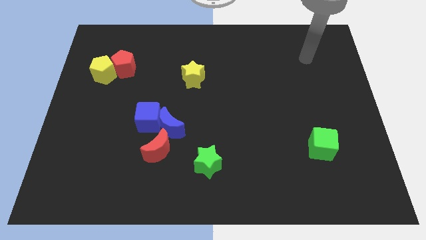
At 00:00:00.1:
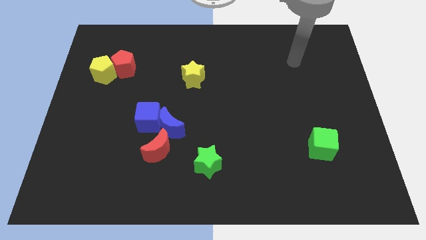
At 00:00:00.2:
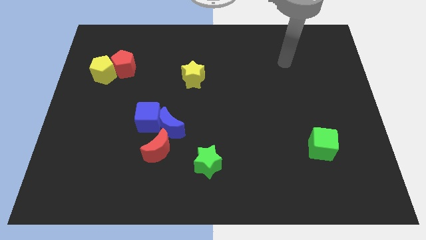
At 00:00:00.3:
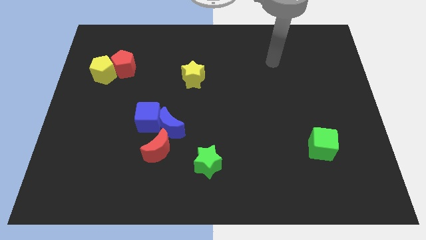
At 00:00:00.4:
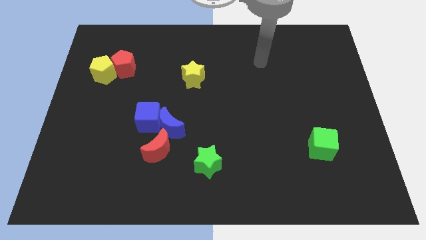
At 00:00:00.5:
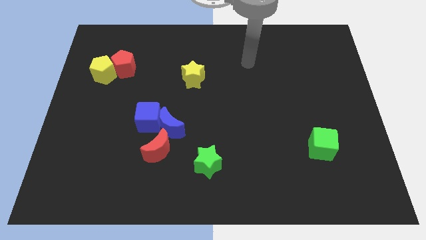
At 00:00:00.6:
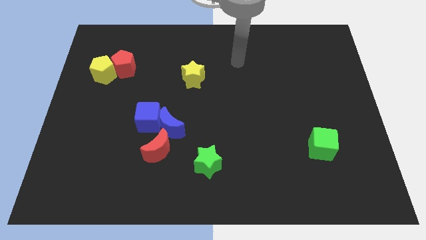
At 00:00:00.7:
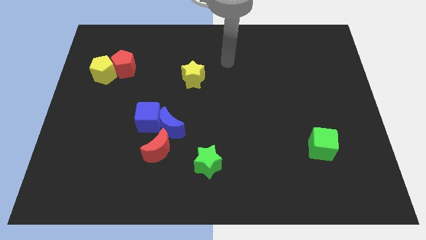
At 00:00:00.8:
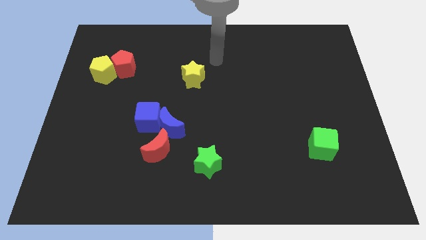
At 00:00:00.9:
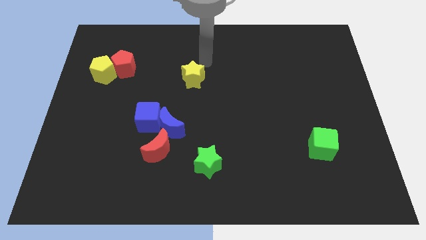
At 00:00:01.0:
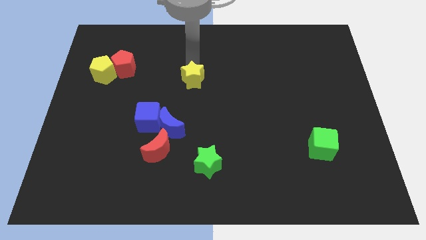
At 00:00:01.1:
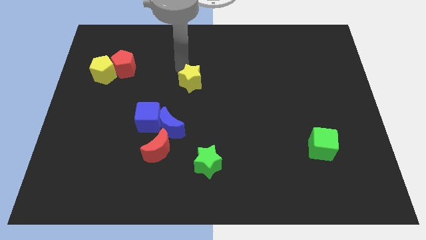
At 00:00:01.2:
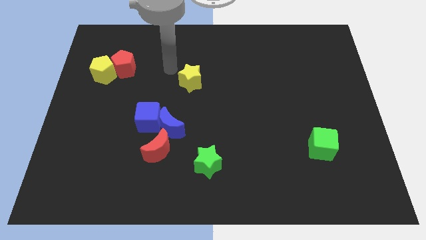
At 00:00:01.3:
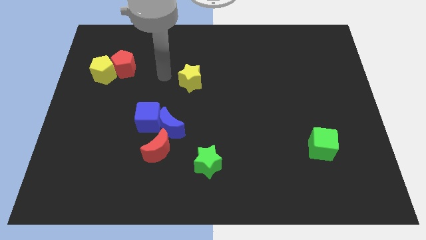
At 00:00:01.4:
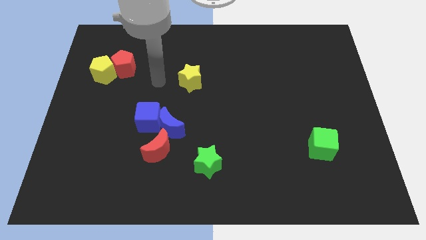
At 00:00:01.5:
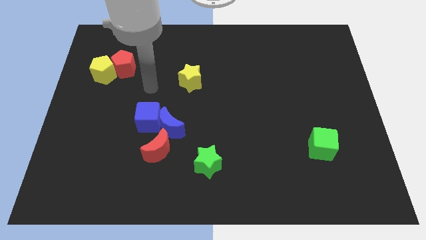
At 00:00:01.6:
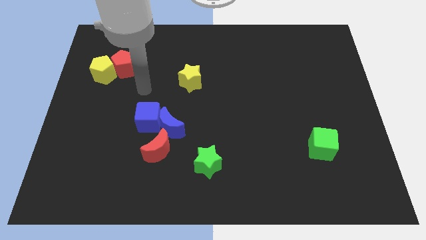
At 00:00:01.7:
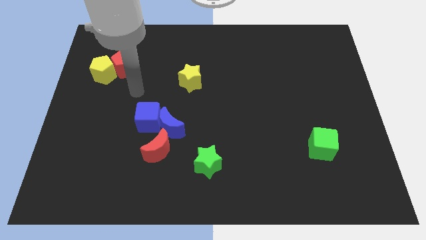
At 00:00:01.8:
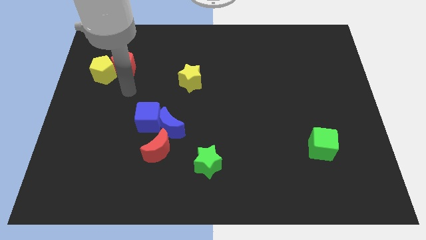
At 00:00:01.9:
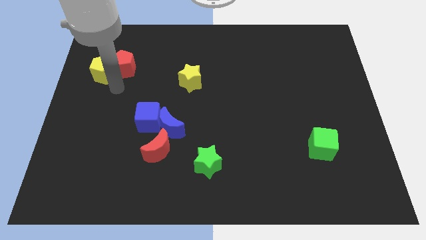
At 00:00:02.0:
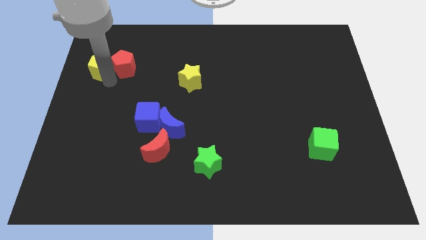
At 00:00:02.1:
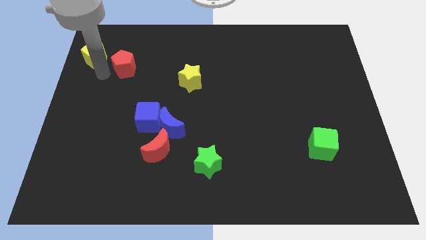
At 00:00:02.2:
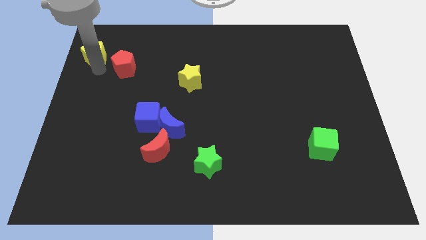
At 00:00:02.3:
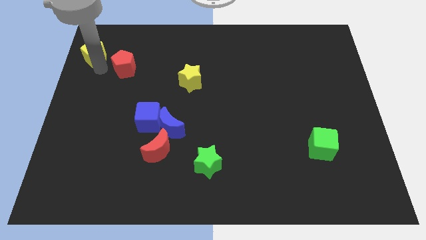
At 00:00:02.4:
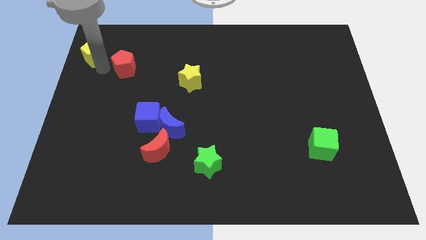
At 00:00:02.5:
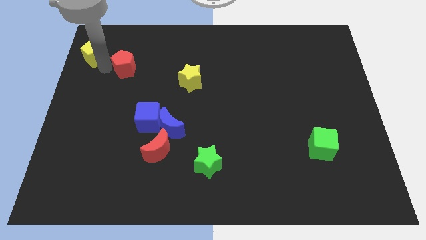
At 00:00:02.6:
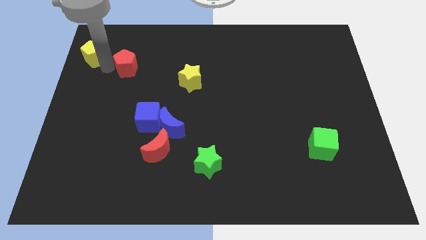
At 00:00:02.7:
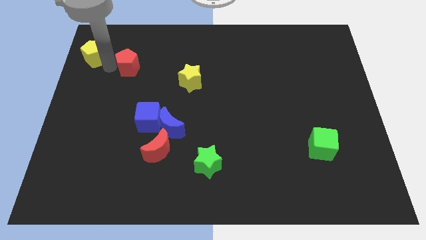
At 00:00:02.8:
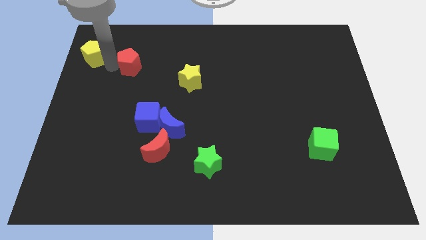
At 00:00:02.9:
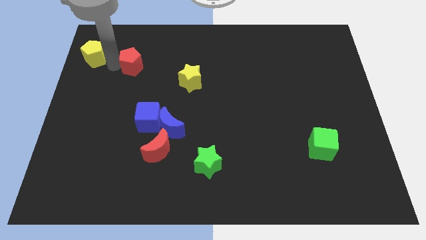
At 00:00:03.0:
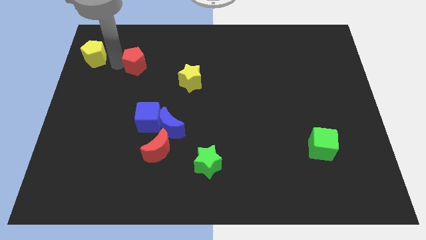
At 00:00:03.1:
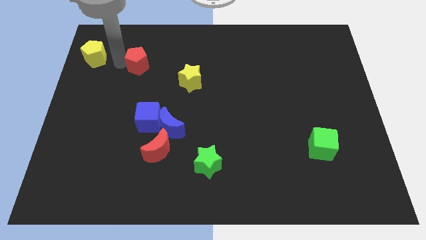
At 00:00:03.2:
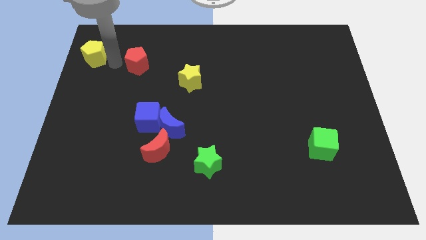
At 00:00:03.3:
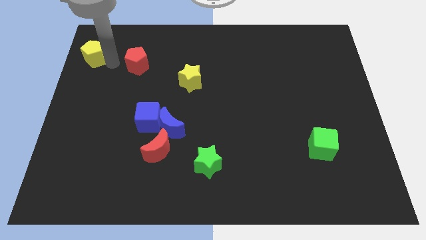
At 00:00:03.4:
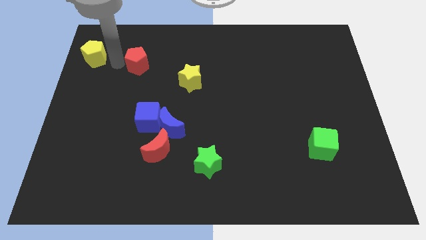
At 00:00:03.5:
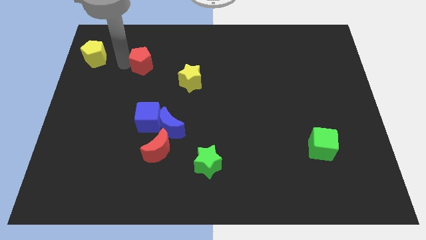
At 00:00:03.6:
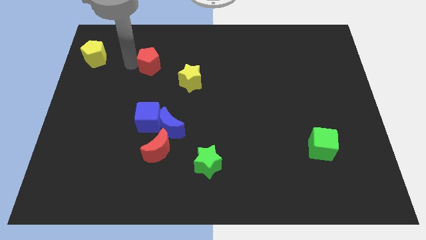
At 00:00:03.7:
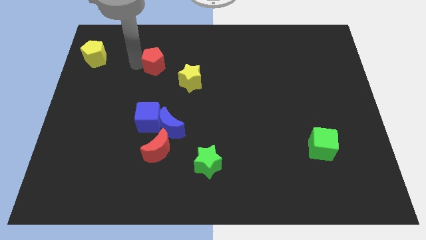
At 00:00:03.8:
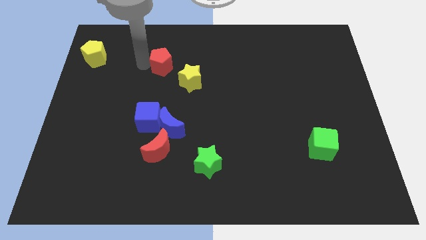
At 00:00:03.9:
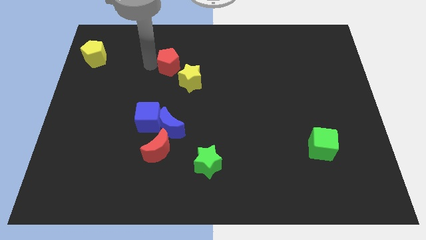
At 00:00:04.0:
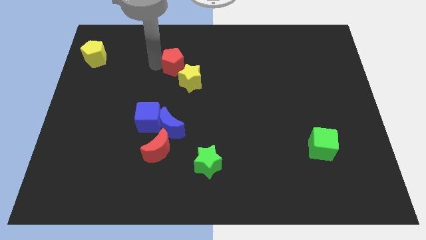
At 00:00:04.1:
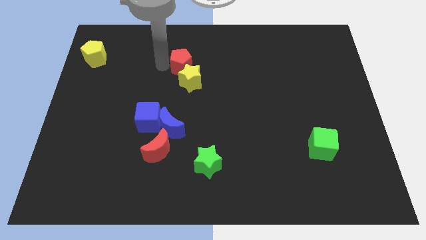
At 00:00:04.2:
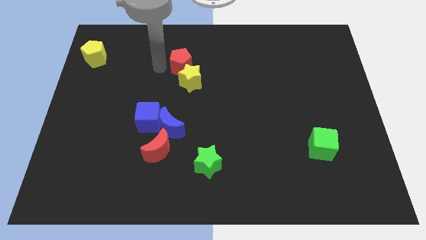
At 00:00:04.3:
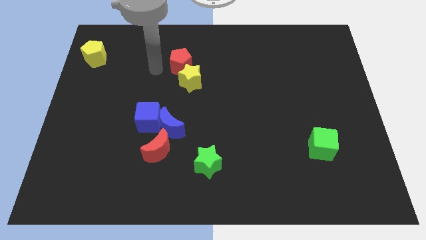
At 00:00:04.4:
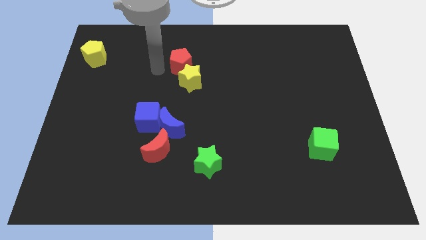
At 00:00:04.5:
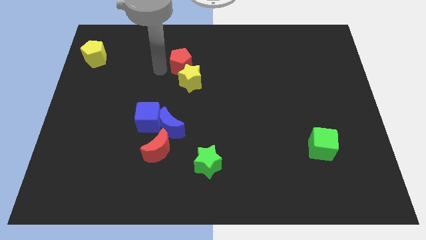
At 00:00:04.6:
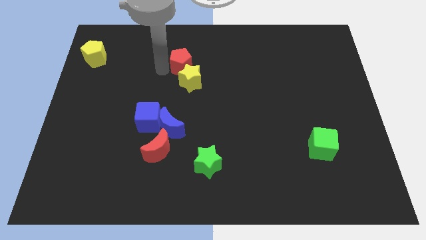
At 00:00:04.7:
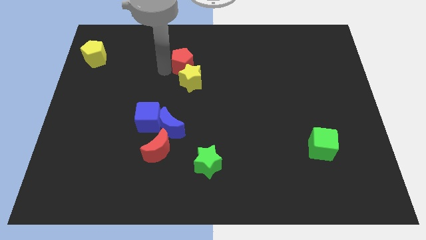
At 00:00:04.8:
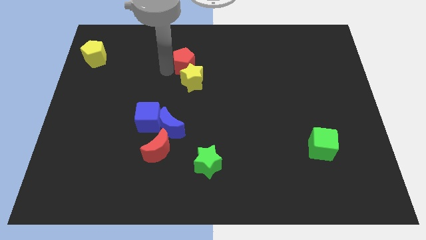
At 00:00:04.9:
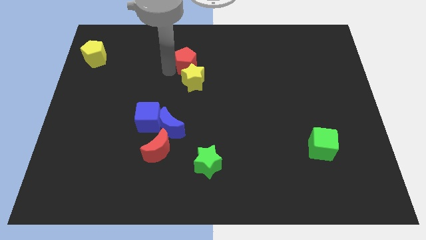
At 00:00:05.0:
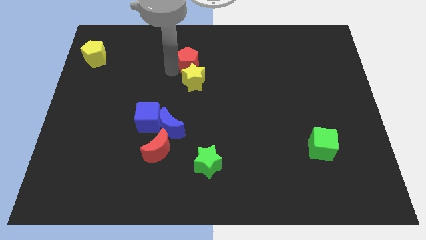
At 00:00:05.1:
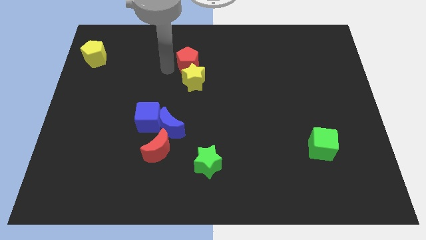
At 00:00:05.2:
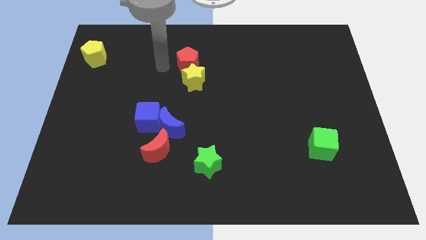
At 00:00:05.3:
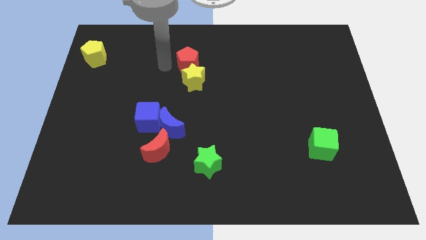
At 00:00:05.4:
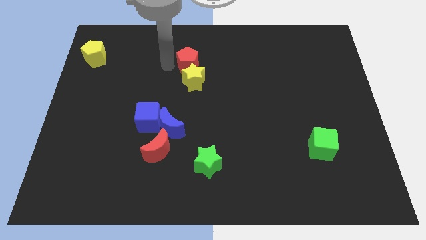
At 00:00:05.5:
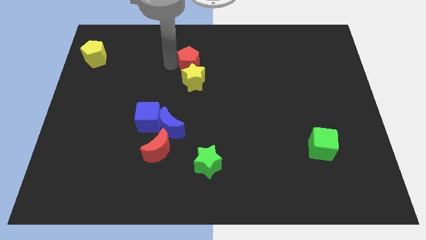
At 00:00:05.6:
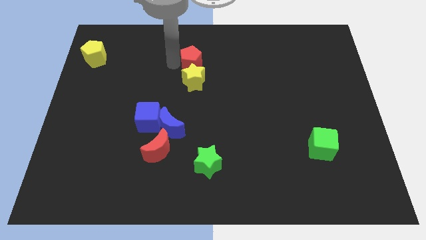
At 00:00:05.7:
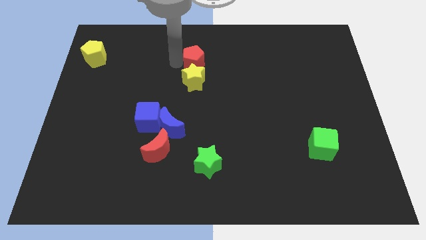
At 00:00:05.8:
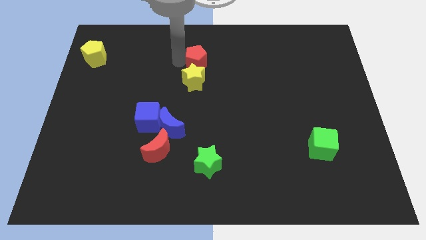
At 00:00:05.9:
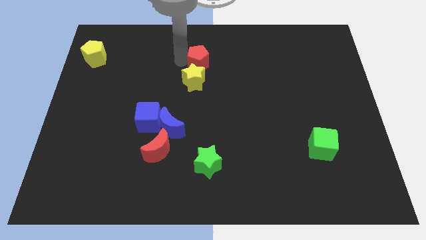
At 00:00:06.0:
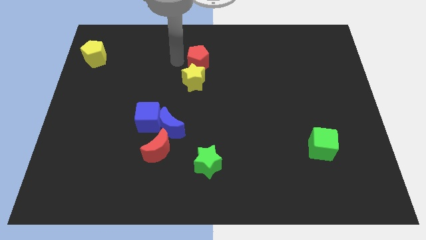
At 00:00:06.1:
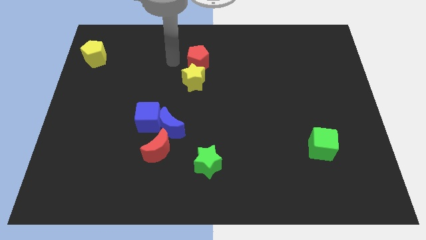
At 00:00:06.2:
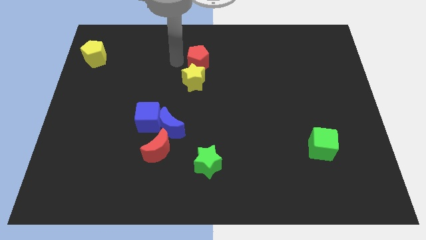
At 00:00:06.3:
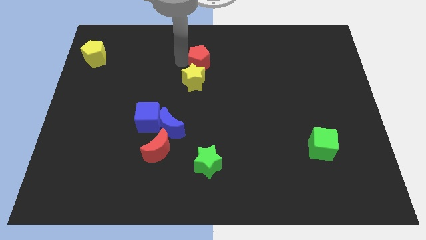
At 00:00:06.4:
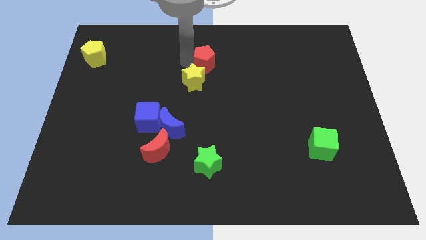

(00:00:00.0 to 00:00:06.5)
slide the red pentagon to the right

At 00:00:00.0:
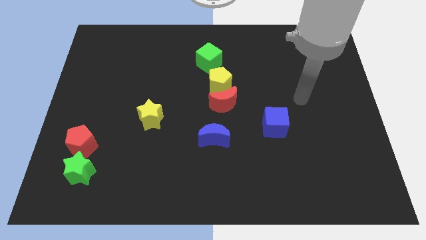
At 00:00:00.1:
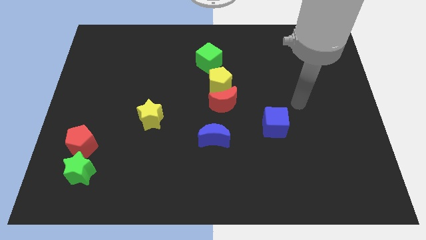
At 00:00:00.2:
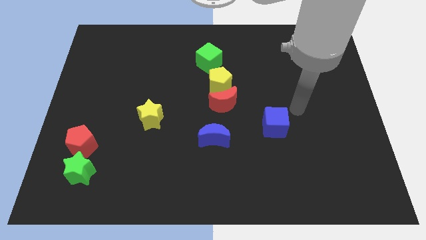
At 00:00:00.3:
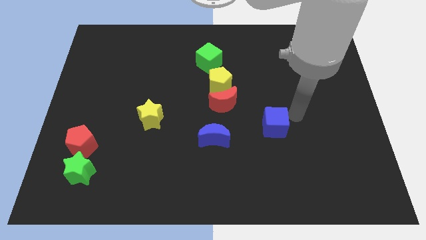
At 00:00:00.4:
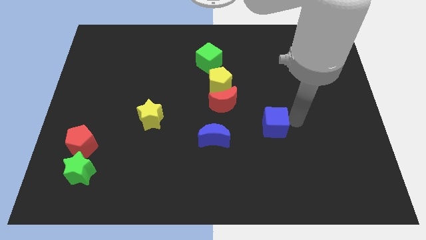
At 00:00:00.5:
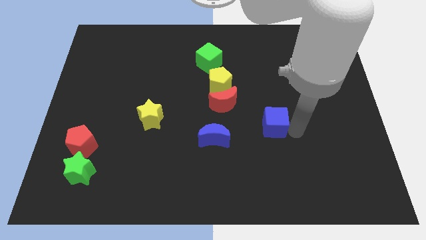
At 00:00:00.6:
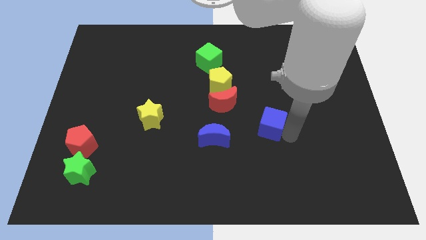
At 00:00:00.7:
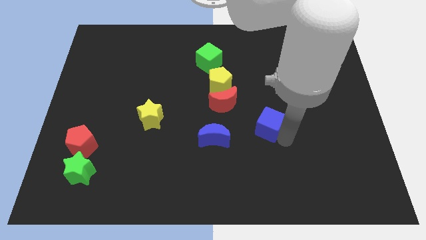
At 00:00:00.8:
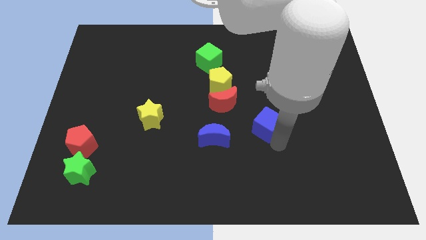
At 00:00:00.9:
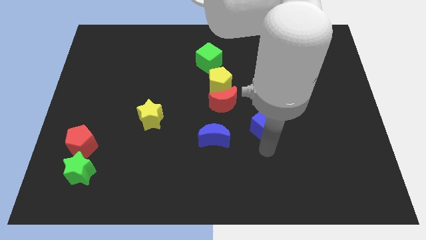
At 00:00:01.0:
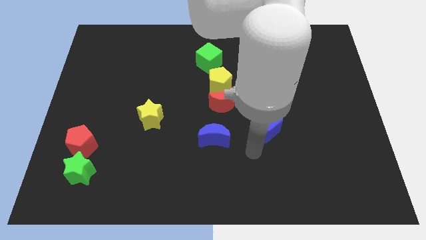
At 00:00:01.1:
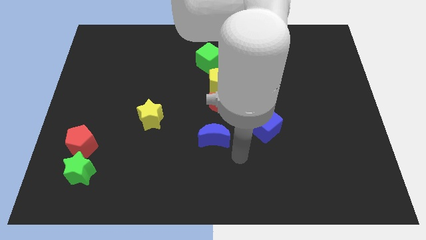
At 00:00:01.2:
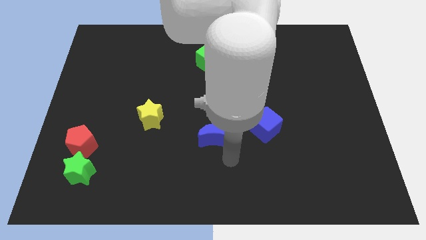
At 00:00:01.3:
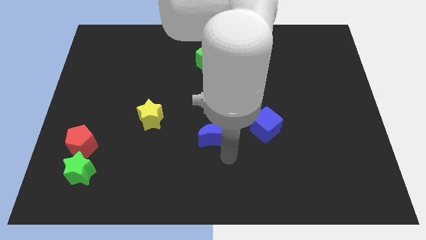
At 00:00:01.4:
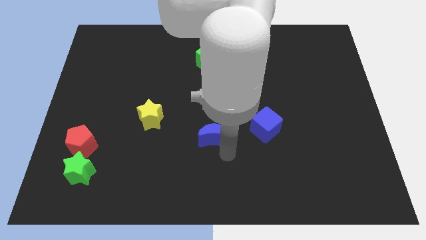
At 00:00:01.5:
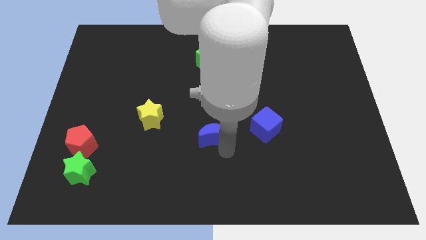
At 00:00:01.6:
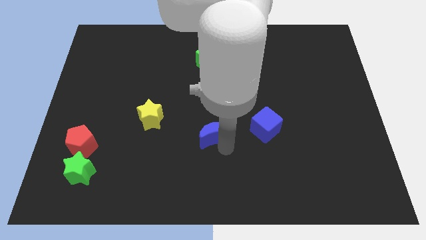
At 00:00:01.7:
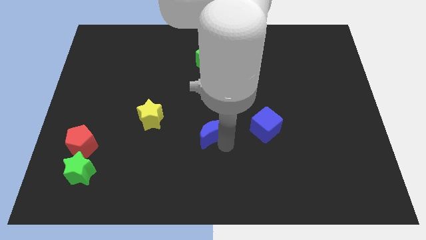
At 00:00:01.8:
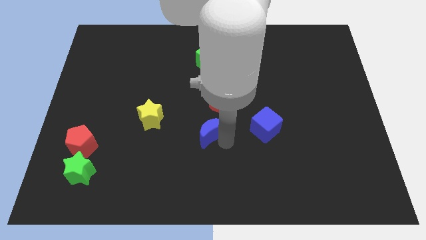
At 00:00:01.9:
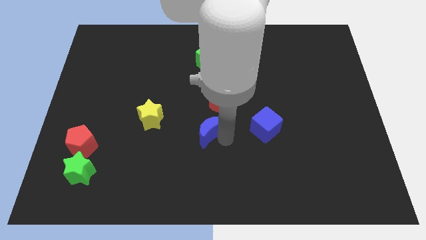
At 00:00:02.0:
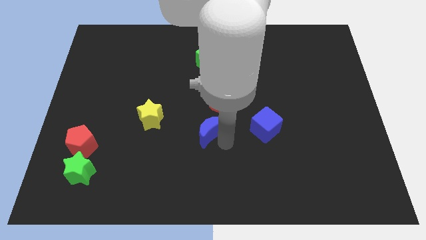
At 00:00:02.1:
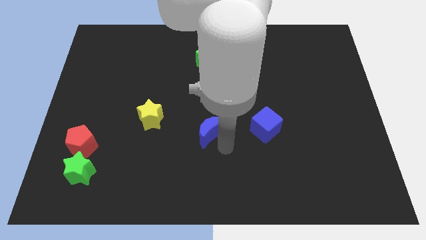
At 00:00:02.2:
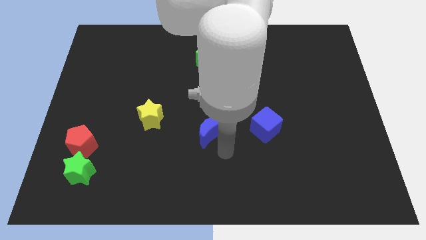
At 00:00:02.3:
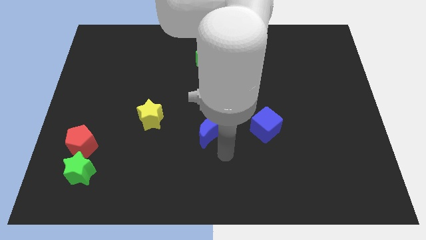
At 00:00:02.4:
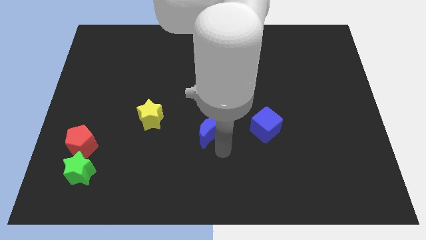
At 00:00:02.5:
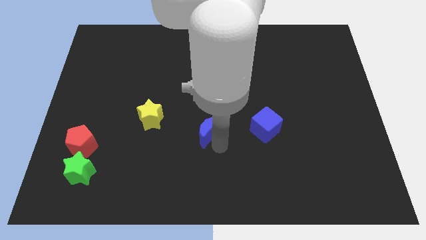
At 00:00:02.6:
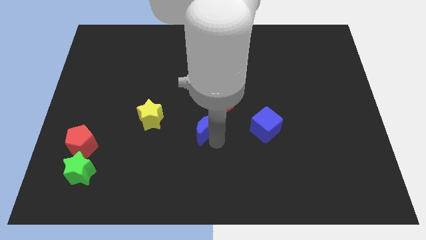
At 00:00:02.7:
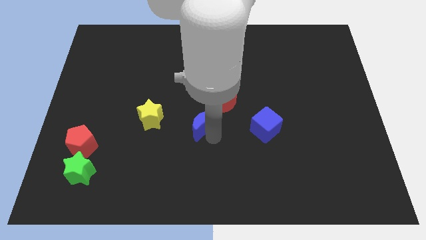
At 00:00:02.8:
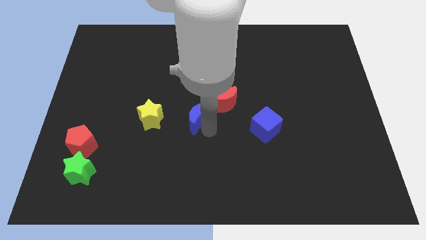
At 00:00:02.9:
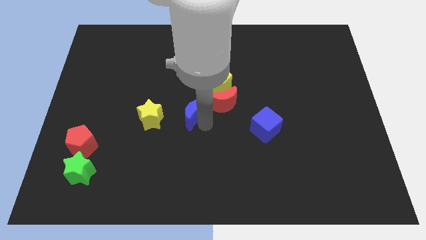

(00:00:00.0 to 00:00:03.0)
push the blue moon upwards and to the left somewhat
